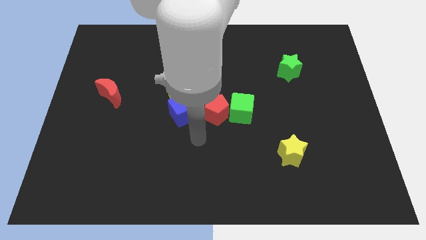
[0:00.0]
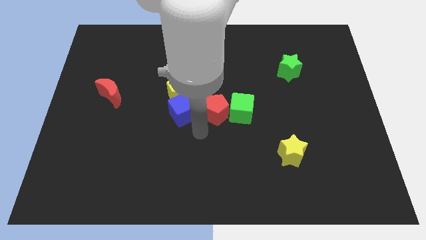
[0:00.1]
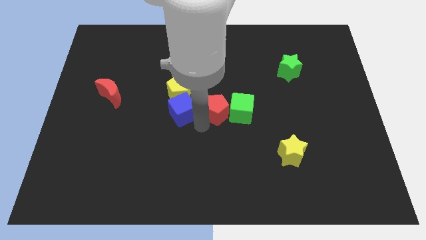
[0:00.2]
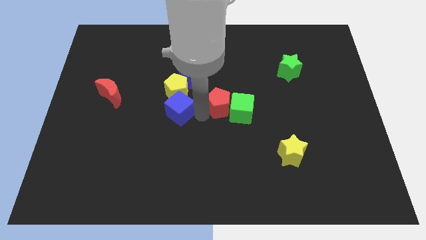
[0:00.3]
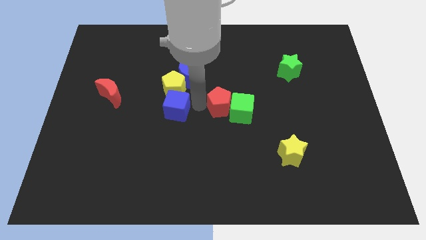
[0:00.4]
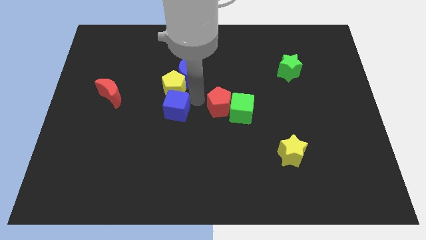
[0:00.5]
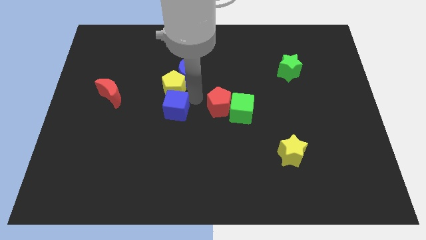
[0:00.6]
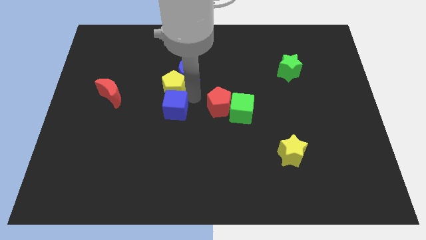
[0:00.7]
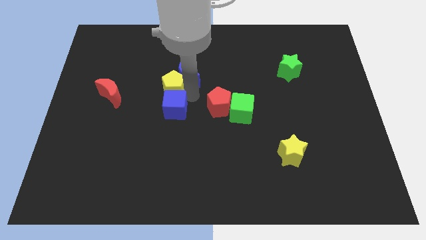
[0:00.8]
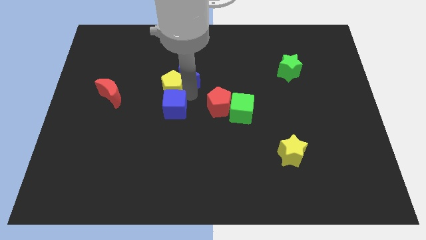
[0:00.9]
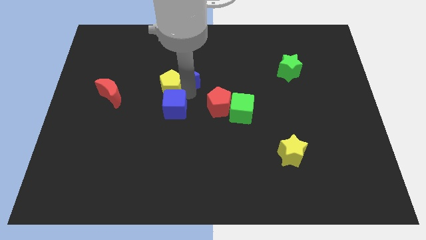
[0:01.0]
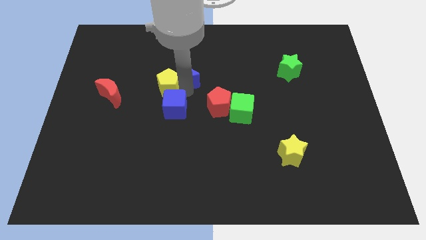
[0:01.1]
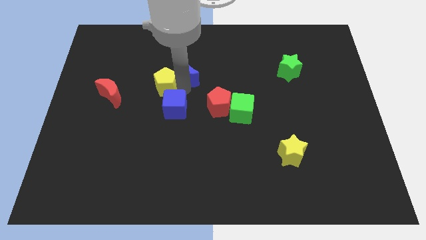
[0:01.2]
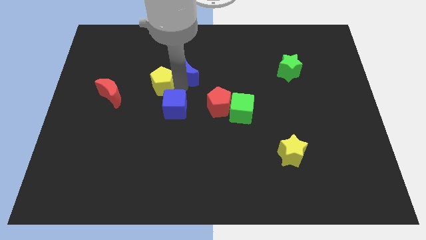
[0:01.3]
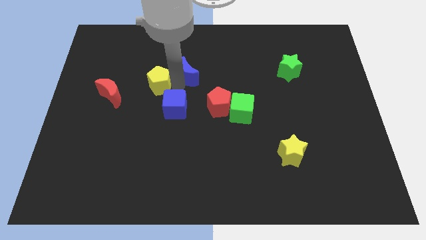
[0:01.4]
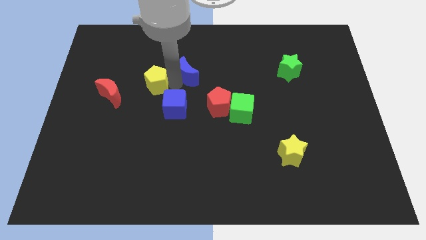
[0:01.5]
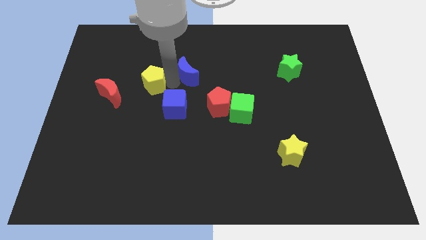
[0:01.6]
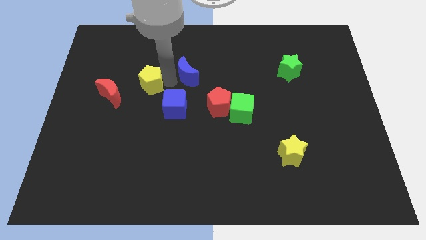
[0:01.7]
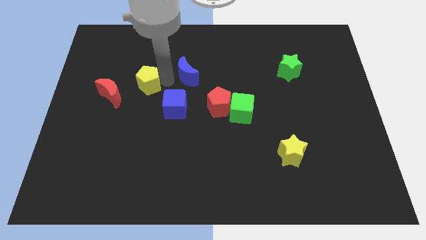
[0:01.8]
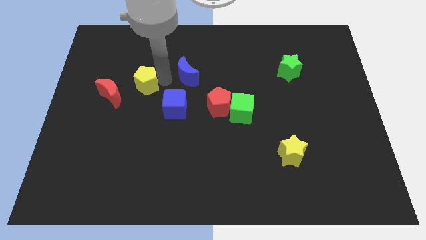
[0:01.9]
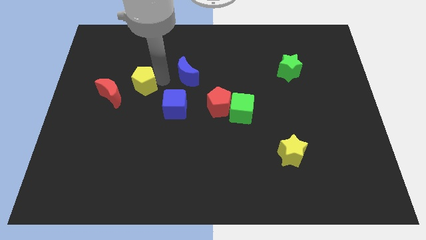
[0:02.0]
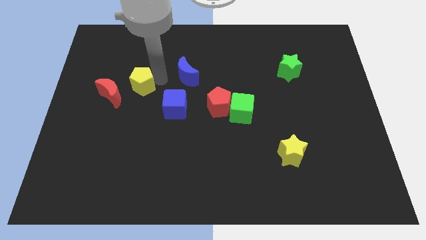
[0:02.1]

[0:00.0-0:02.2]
separate the yellow pentagon from the blue moon and blue cube

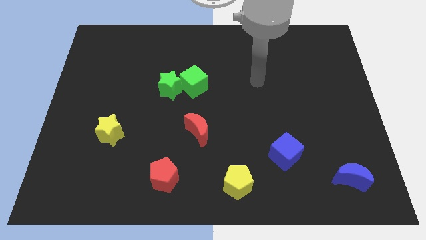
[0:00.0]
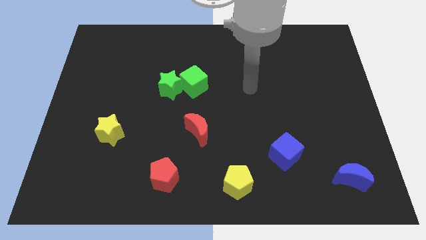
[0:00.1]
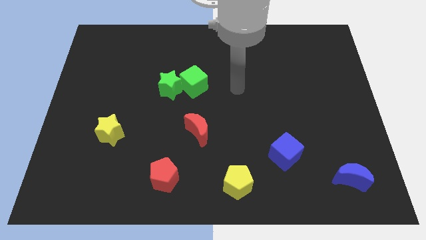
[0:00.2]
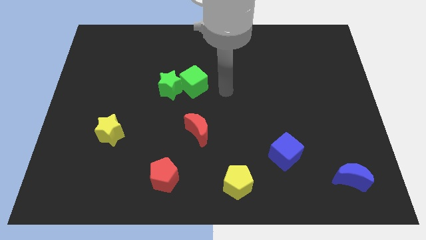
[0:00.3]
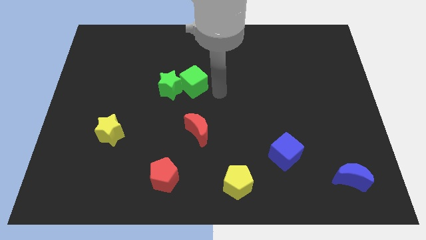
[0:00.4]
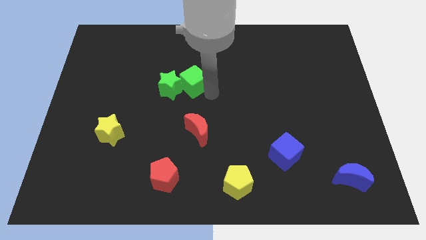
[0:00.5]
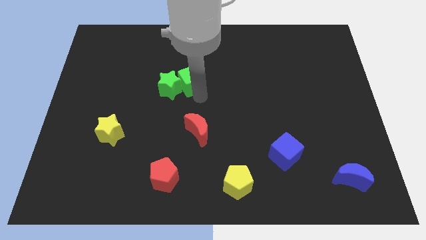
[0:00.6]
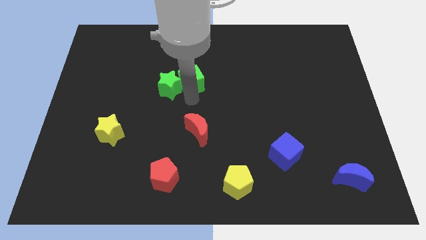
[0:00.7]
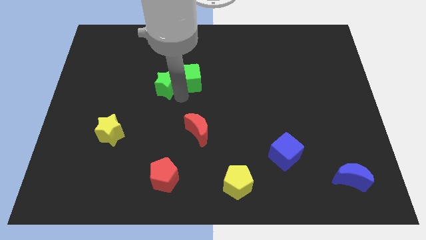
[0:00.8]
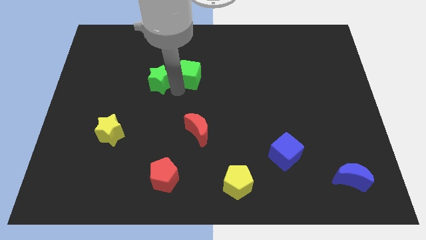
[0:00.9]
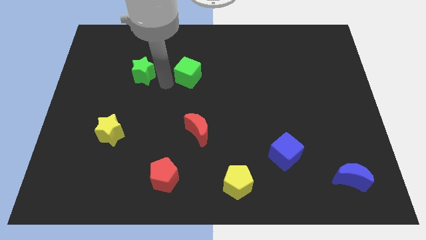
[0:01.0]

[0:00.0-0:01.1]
move the green cube away from the green star

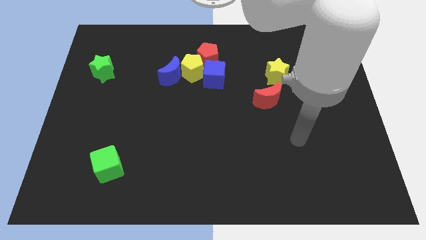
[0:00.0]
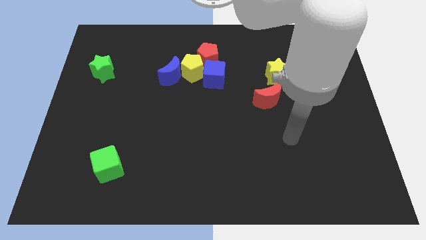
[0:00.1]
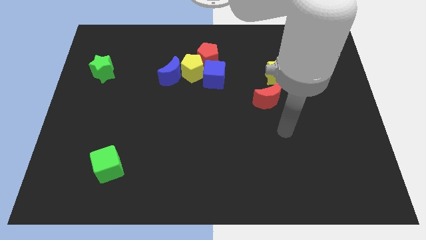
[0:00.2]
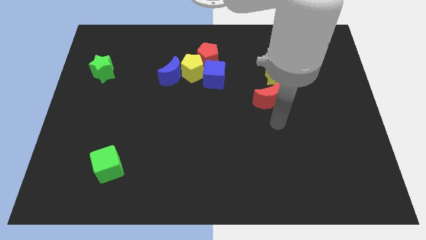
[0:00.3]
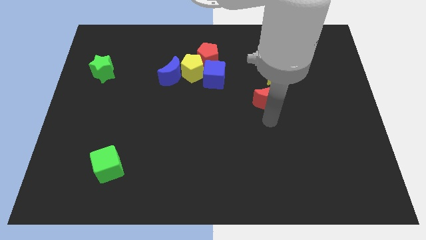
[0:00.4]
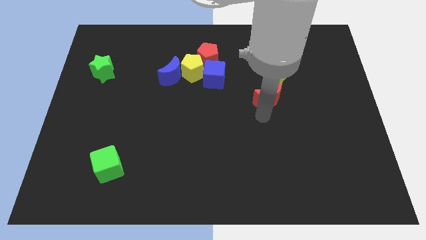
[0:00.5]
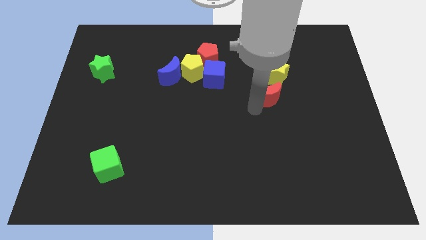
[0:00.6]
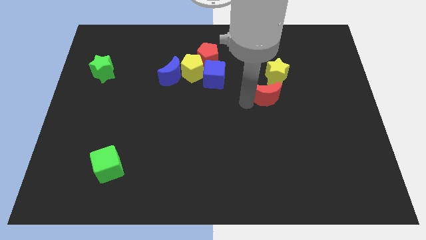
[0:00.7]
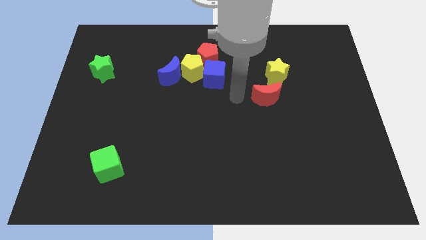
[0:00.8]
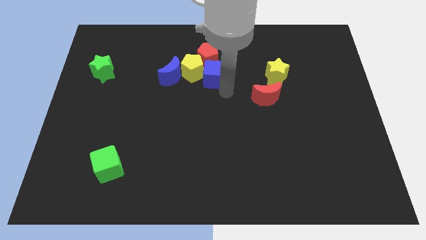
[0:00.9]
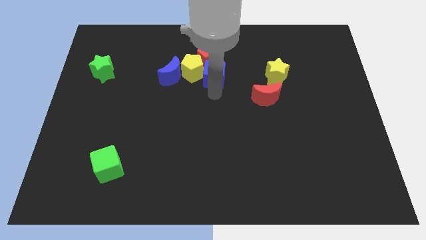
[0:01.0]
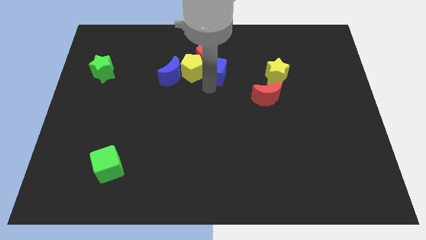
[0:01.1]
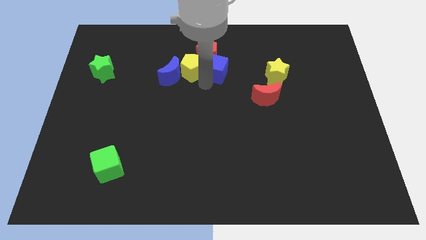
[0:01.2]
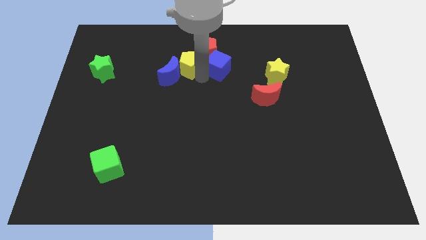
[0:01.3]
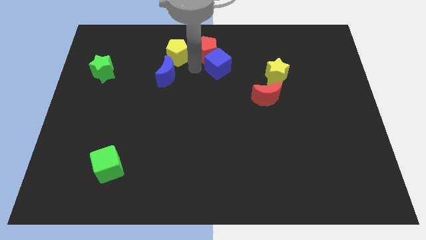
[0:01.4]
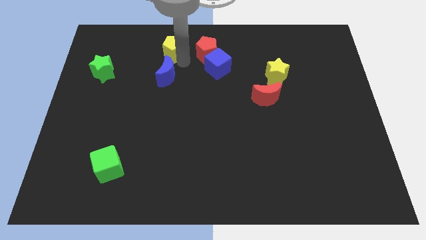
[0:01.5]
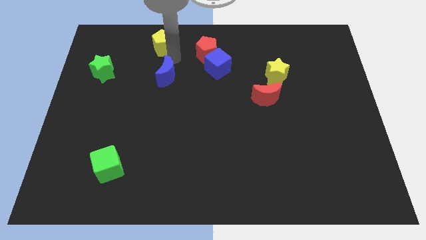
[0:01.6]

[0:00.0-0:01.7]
pull the blue moon apart from the yellow pentagon

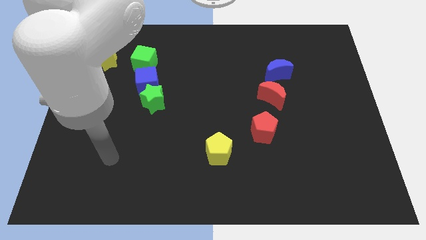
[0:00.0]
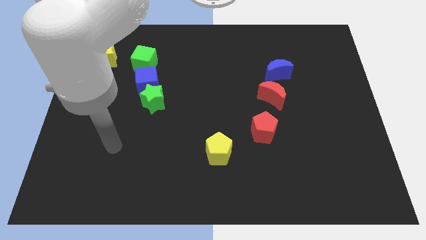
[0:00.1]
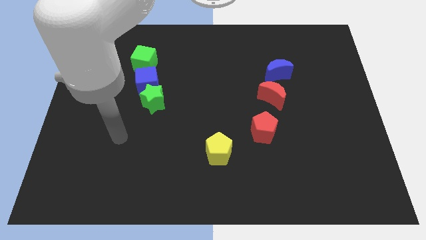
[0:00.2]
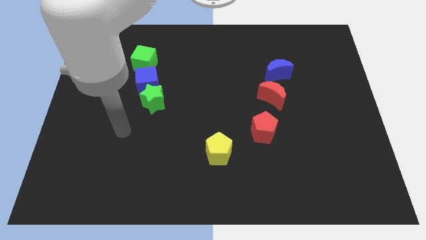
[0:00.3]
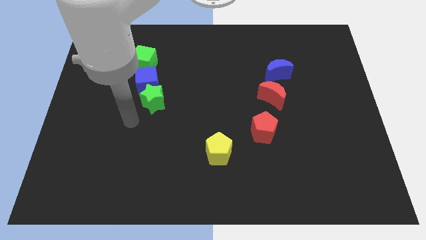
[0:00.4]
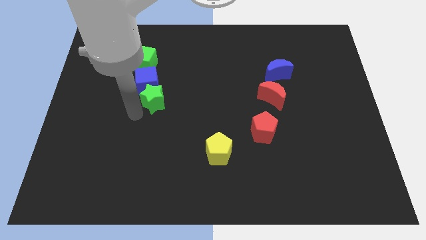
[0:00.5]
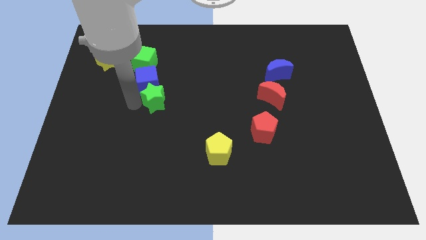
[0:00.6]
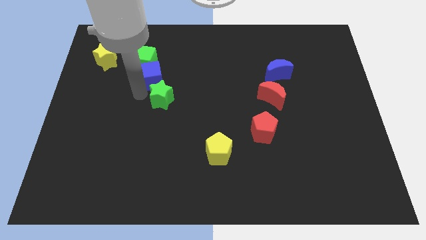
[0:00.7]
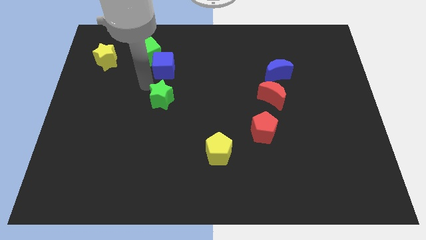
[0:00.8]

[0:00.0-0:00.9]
pull the green star apart from the blue cube

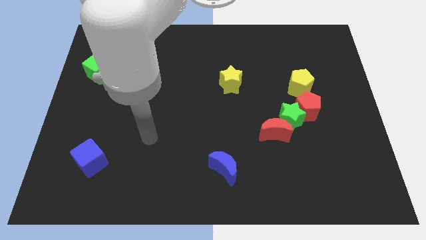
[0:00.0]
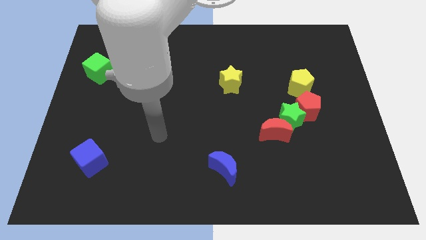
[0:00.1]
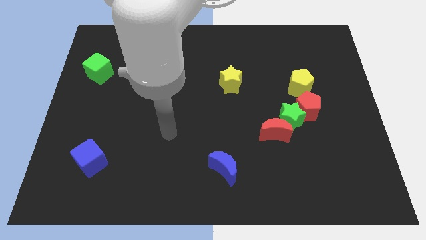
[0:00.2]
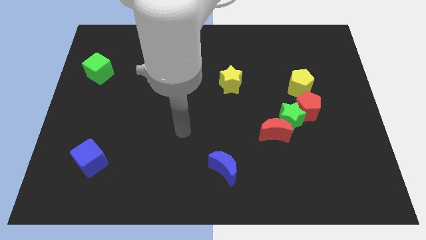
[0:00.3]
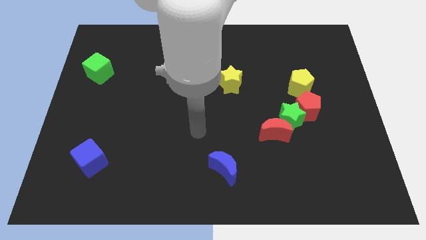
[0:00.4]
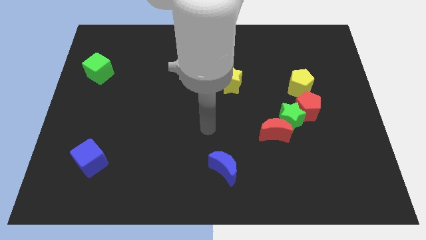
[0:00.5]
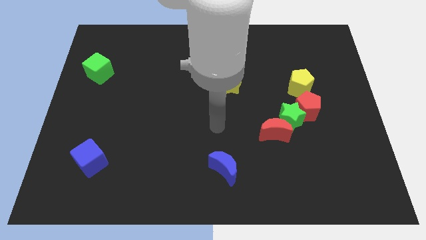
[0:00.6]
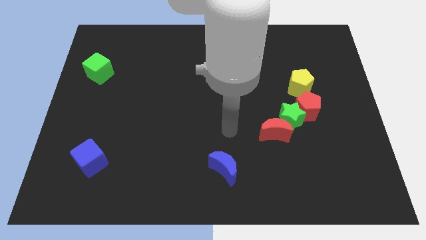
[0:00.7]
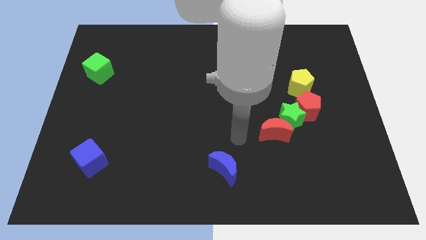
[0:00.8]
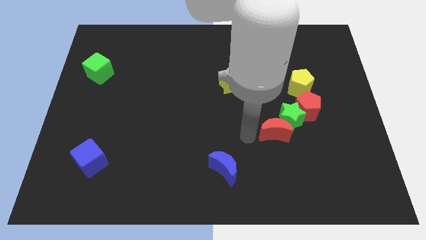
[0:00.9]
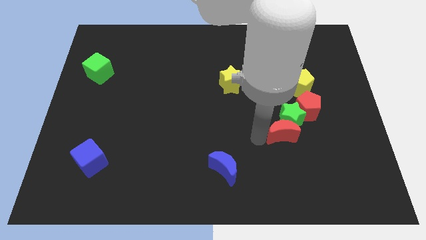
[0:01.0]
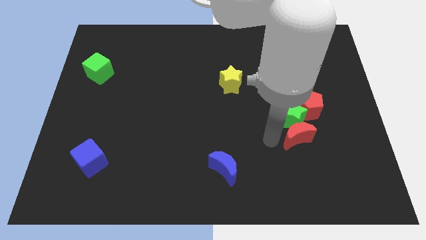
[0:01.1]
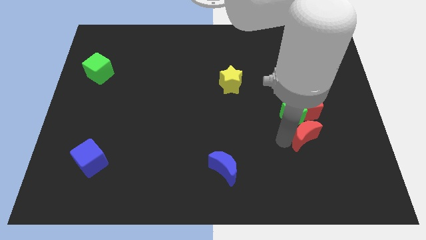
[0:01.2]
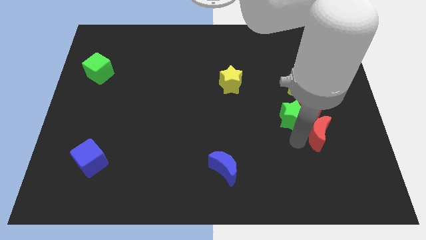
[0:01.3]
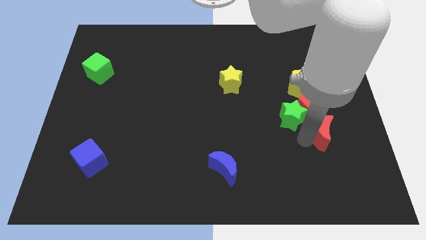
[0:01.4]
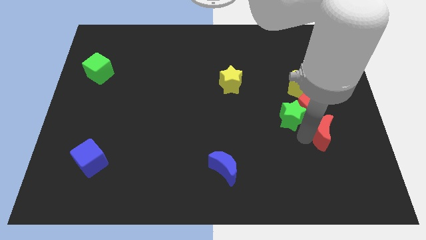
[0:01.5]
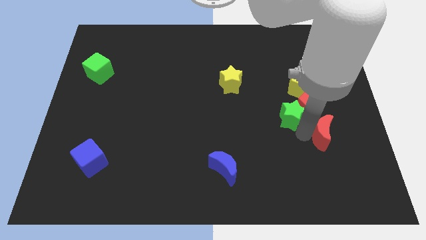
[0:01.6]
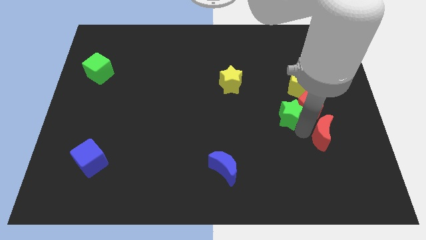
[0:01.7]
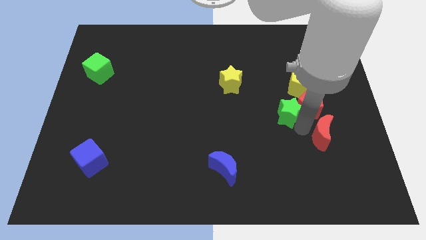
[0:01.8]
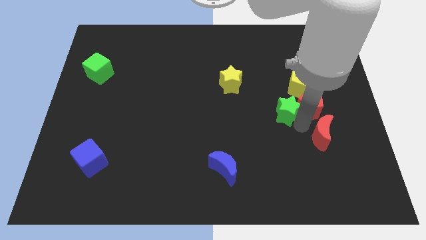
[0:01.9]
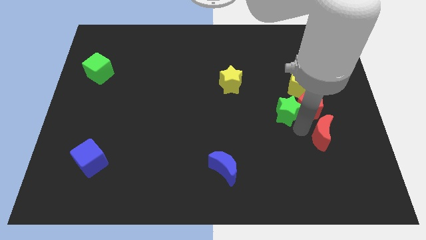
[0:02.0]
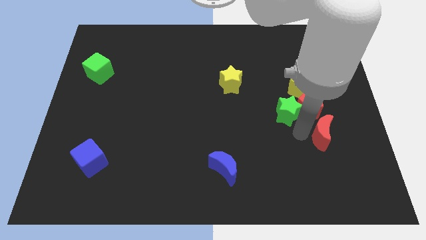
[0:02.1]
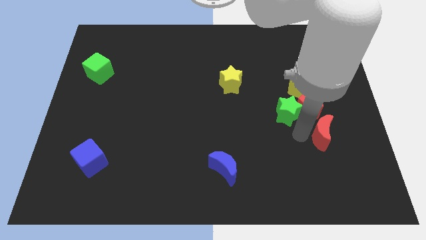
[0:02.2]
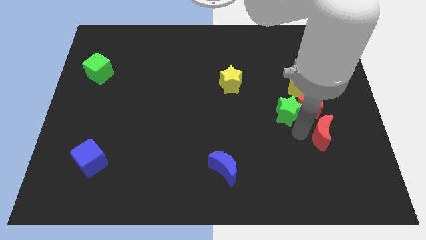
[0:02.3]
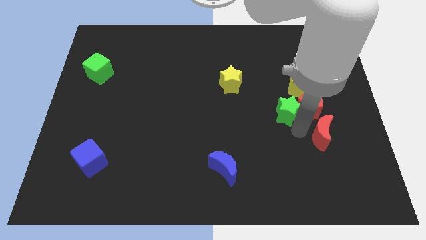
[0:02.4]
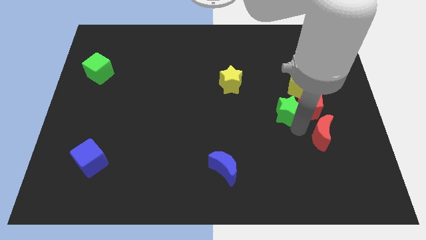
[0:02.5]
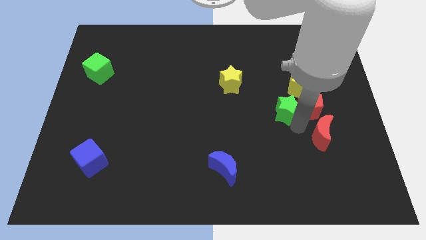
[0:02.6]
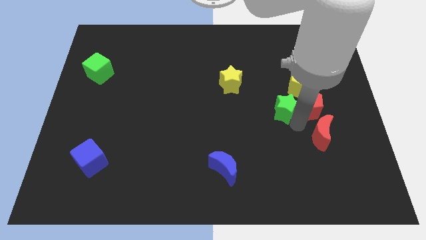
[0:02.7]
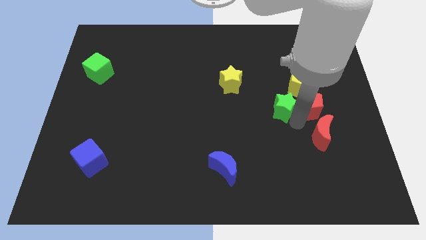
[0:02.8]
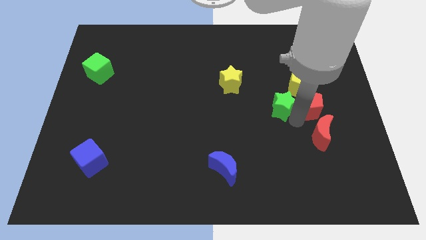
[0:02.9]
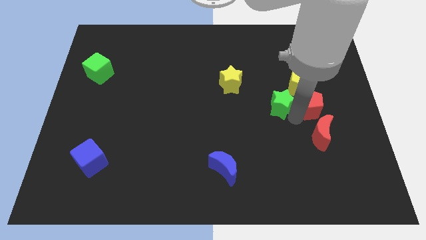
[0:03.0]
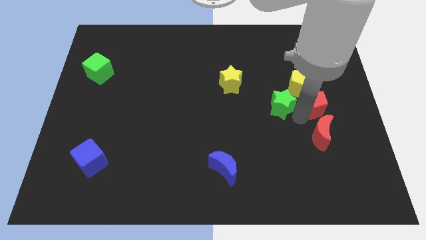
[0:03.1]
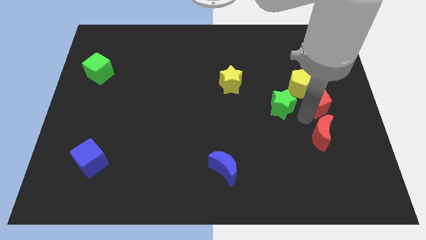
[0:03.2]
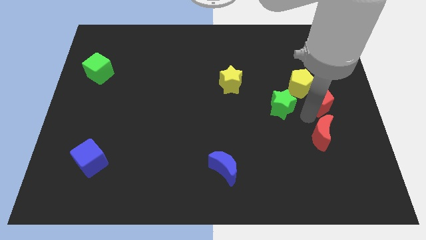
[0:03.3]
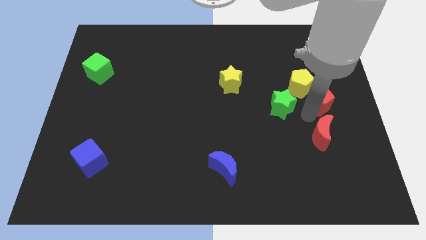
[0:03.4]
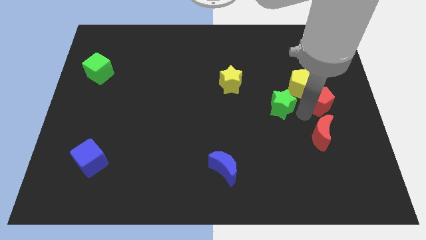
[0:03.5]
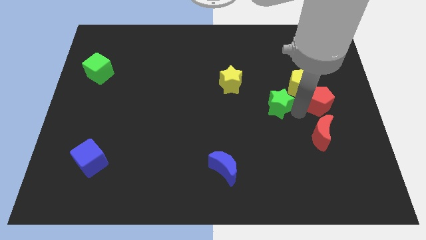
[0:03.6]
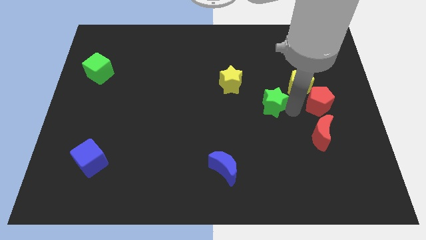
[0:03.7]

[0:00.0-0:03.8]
move the green star away from the red pentagon and red moon
